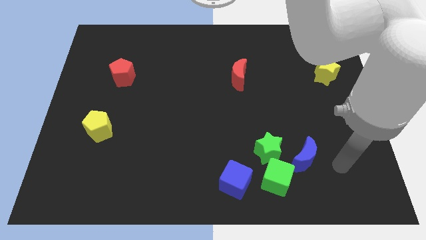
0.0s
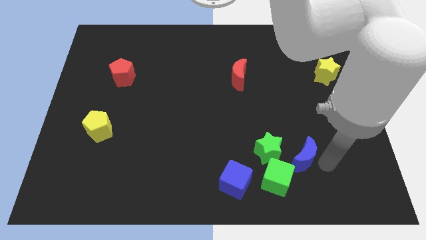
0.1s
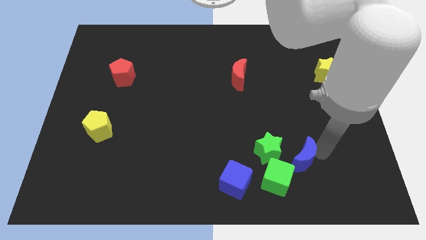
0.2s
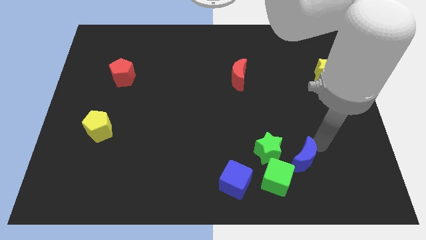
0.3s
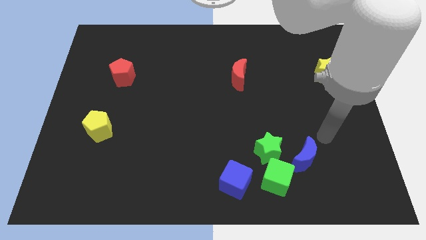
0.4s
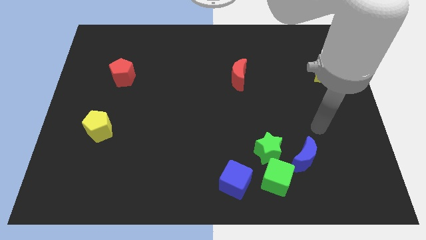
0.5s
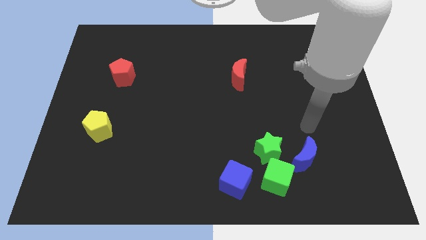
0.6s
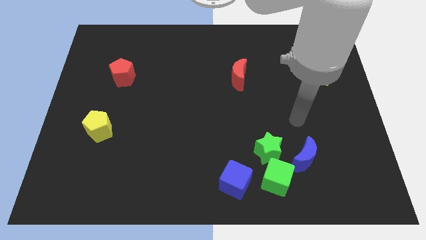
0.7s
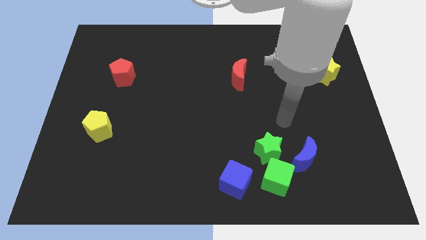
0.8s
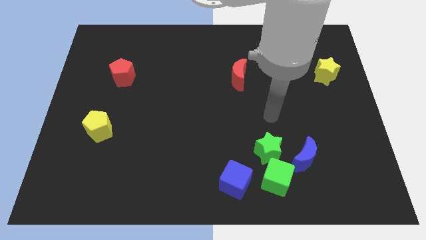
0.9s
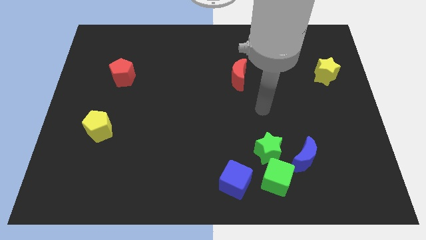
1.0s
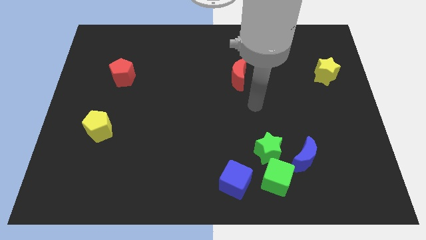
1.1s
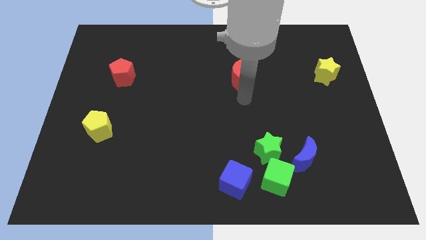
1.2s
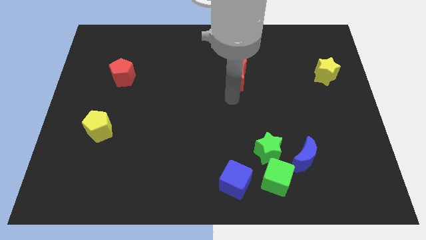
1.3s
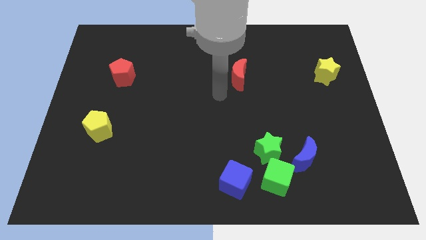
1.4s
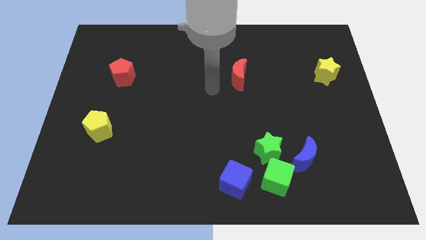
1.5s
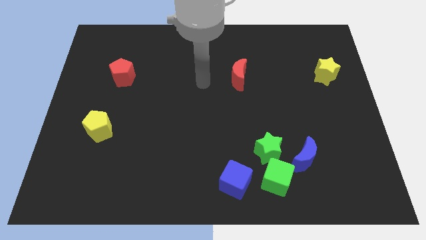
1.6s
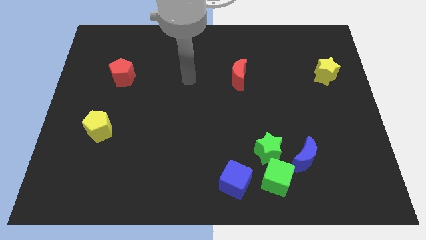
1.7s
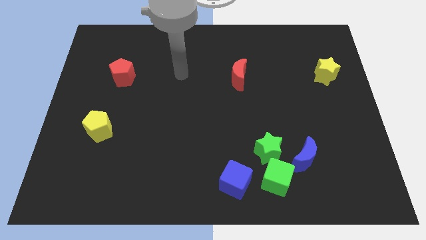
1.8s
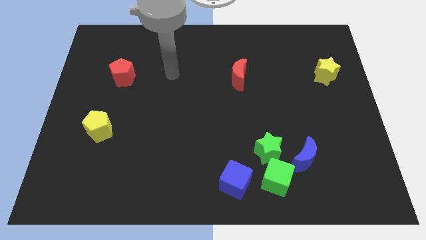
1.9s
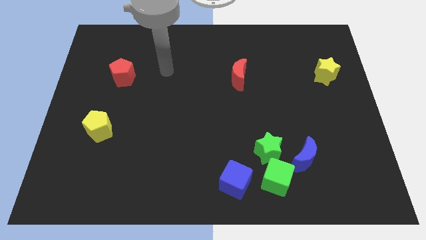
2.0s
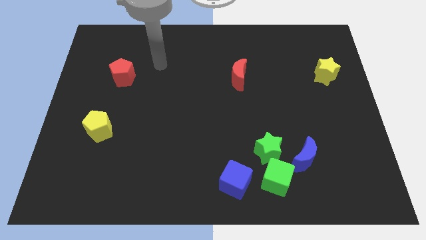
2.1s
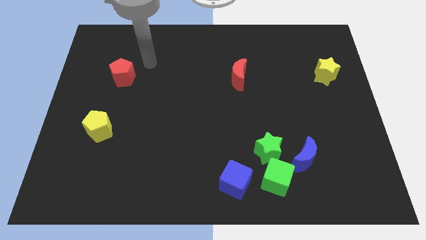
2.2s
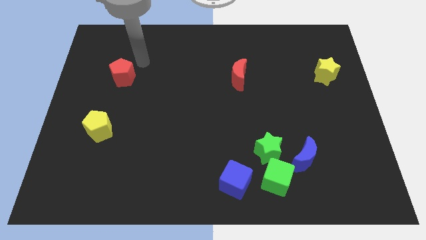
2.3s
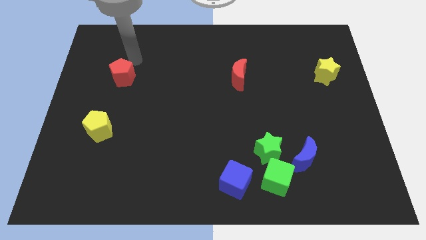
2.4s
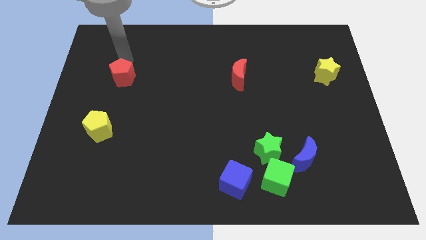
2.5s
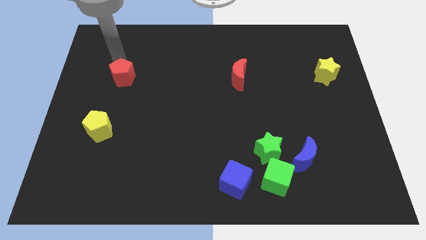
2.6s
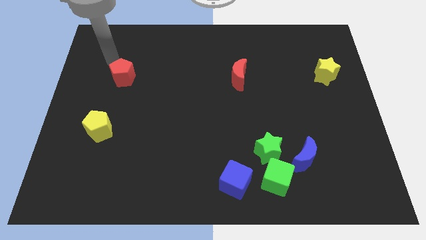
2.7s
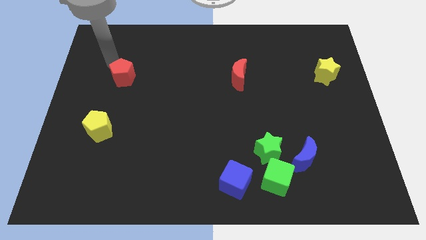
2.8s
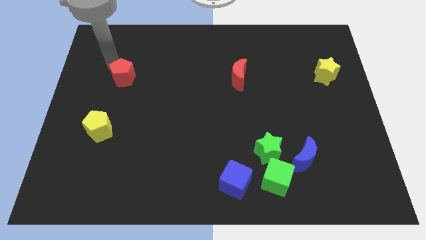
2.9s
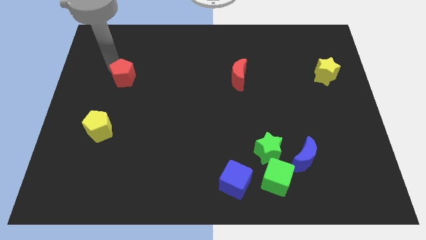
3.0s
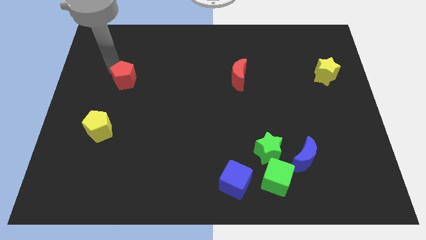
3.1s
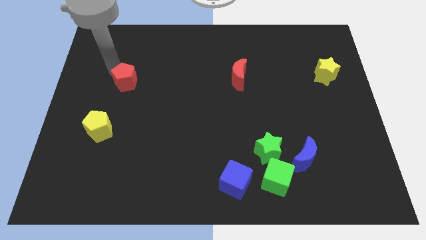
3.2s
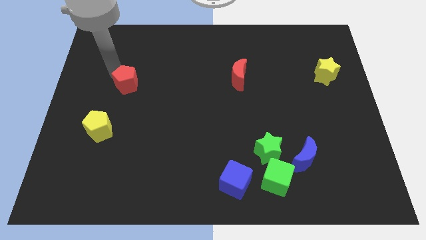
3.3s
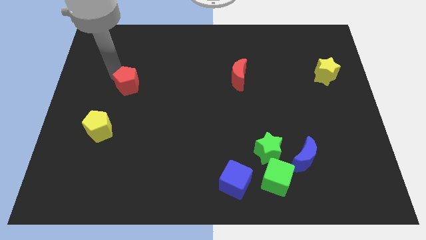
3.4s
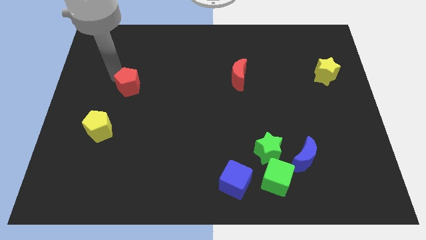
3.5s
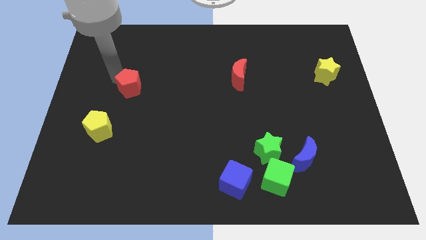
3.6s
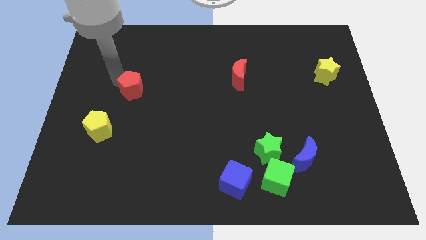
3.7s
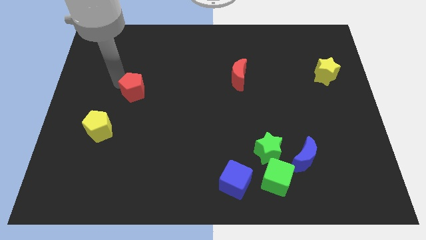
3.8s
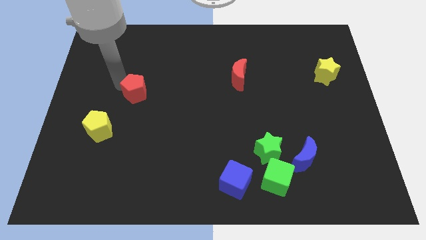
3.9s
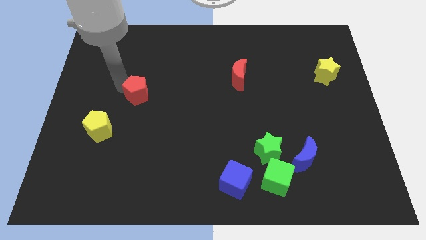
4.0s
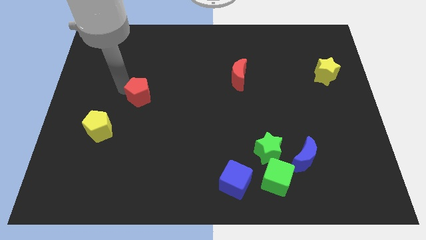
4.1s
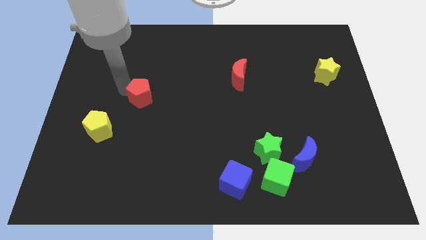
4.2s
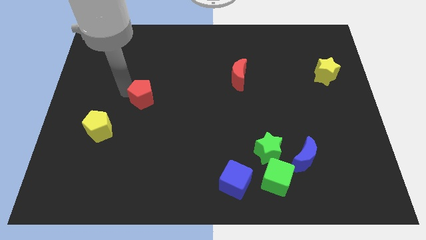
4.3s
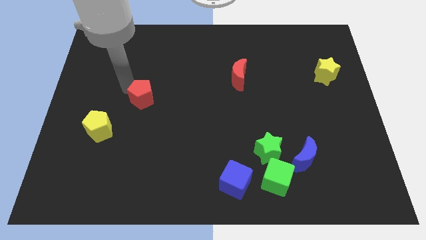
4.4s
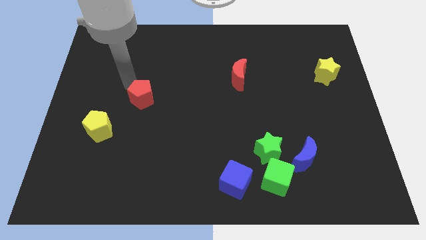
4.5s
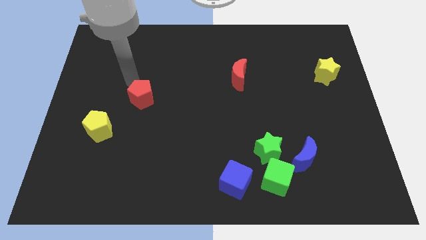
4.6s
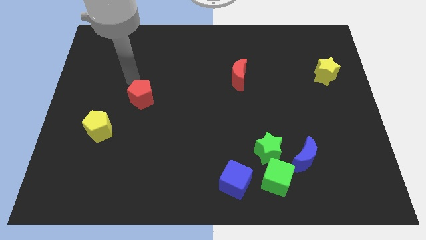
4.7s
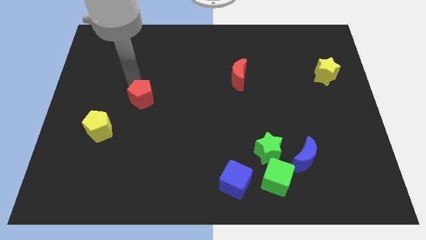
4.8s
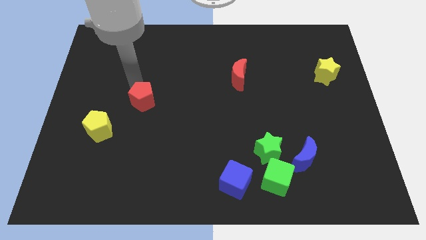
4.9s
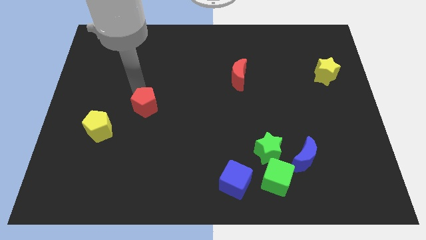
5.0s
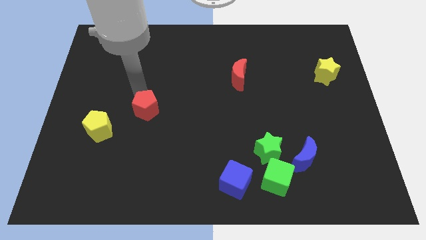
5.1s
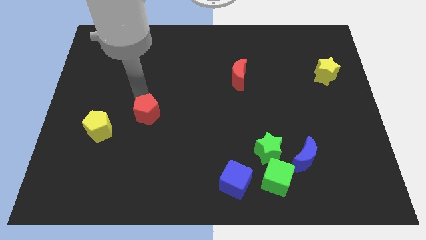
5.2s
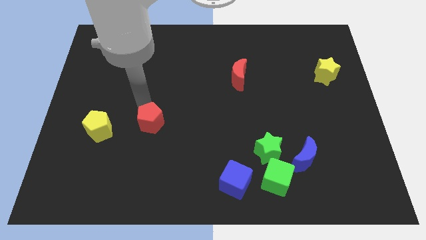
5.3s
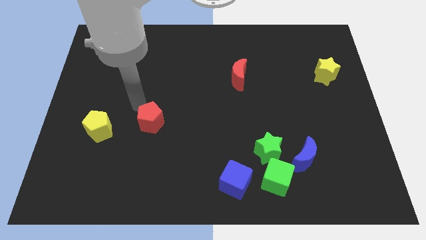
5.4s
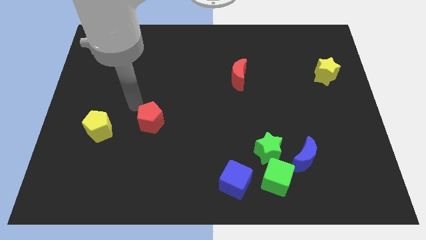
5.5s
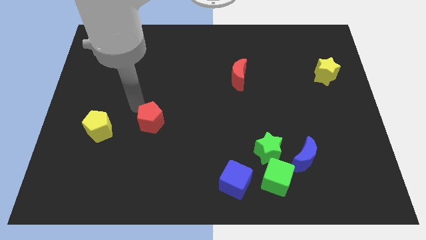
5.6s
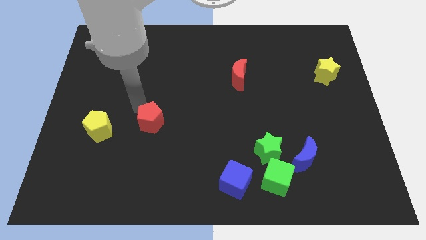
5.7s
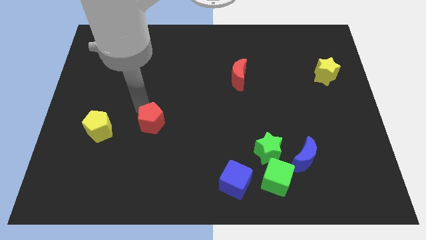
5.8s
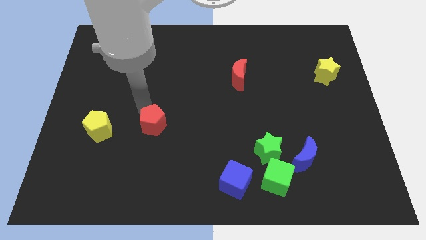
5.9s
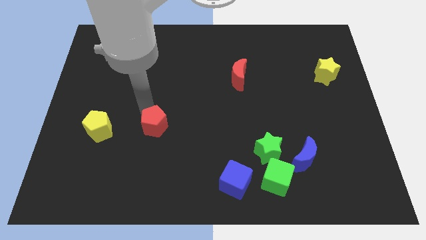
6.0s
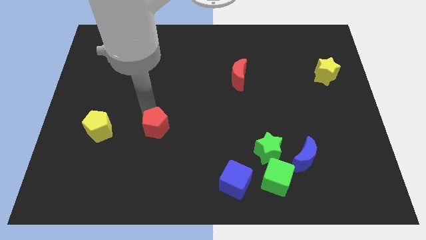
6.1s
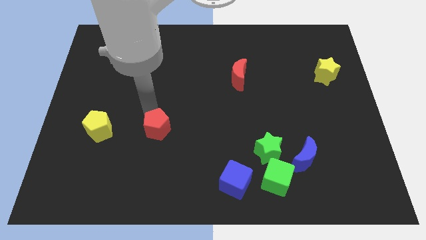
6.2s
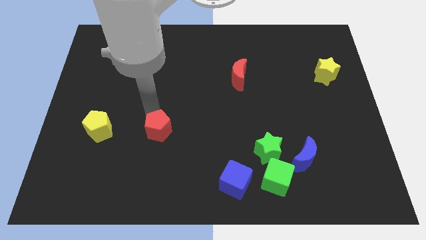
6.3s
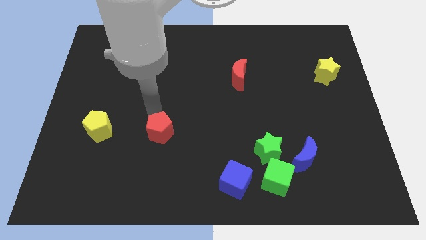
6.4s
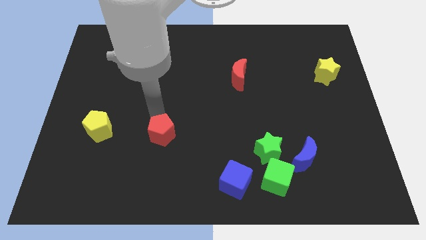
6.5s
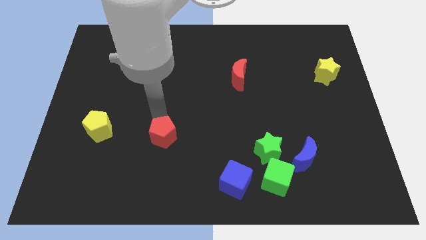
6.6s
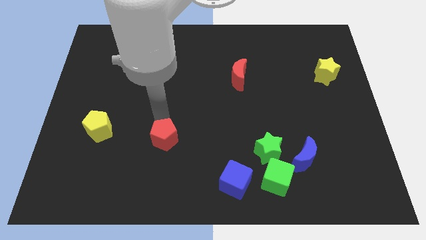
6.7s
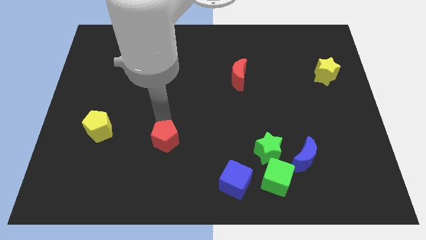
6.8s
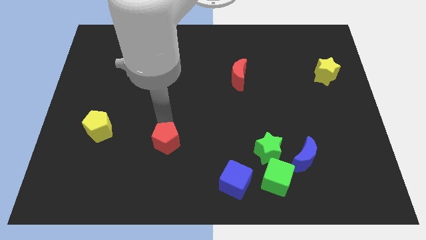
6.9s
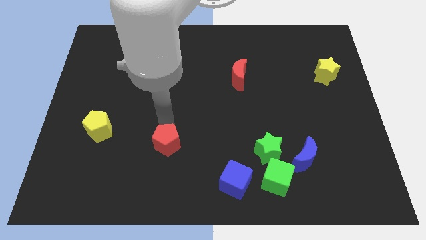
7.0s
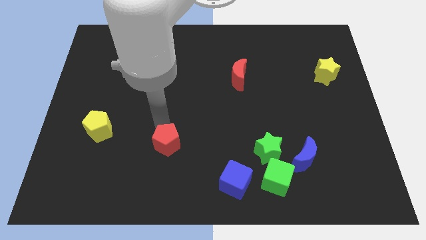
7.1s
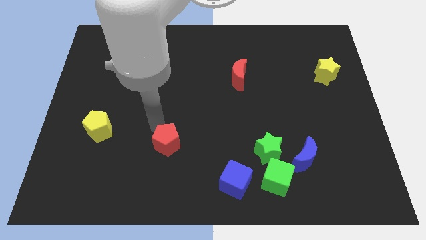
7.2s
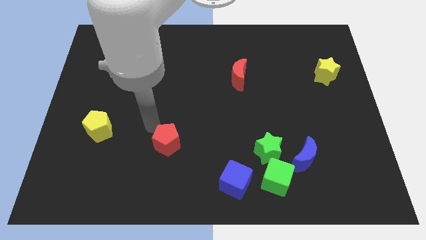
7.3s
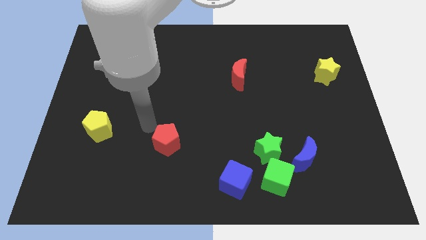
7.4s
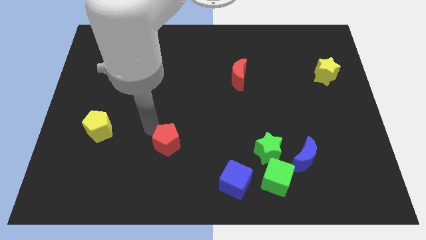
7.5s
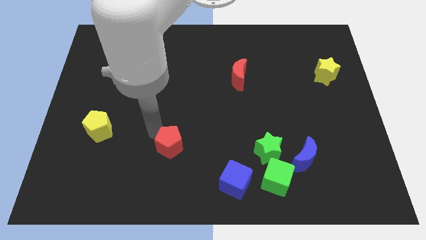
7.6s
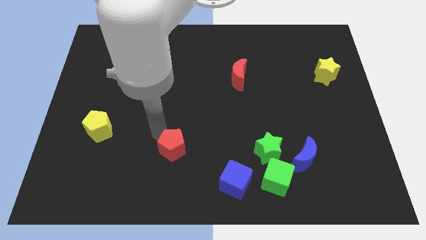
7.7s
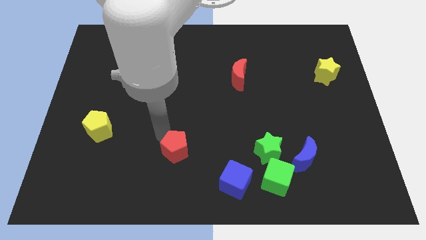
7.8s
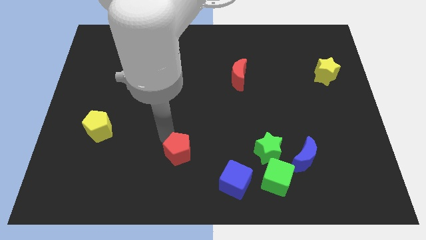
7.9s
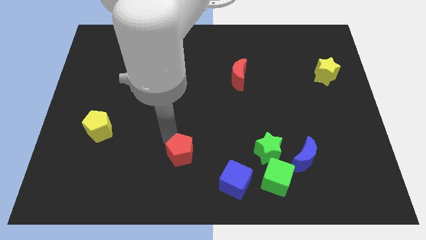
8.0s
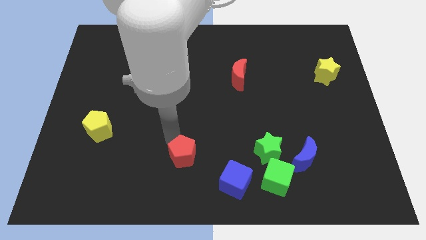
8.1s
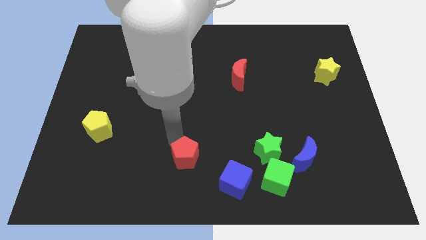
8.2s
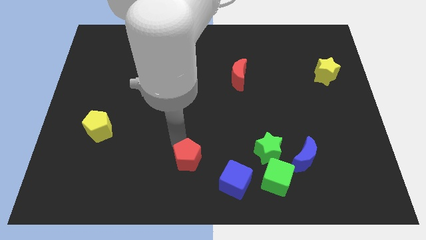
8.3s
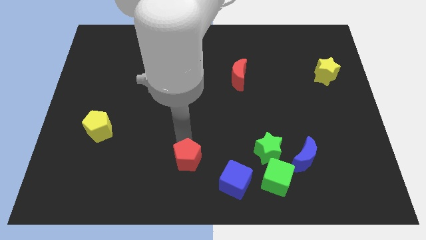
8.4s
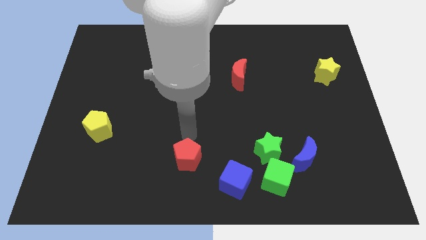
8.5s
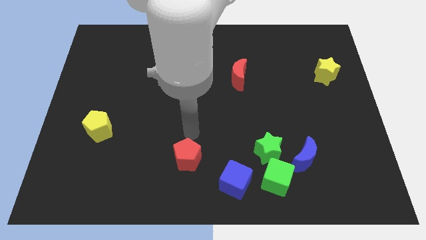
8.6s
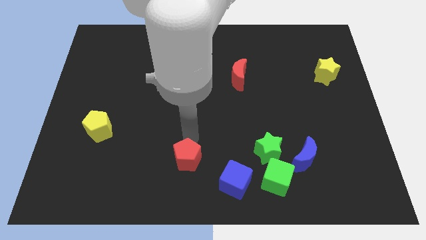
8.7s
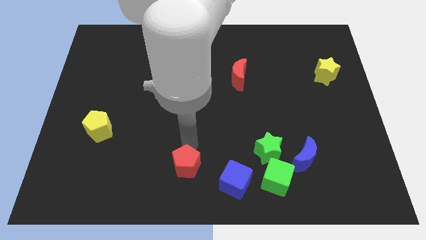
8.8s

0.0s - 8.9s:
put the red pentagon left of the blue cube
